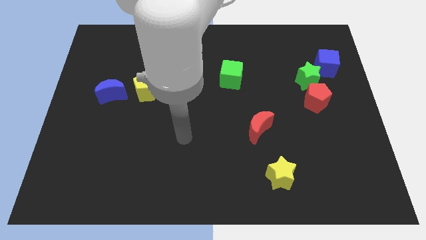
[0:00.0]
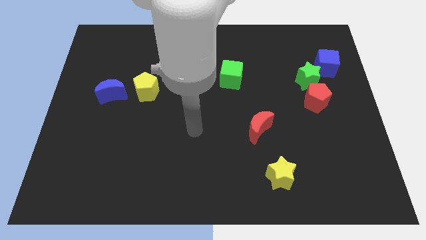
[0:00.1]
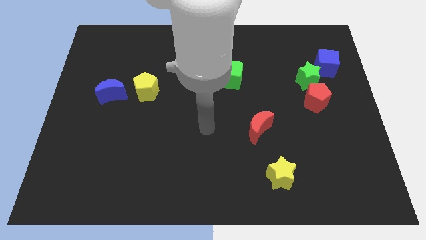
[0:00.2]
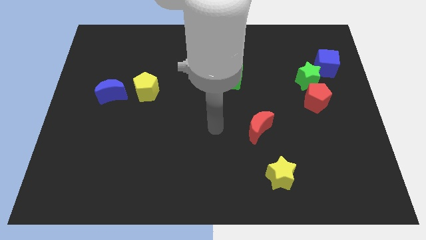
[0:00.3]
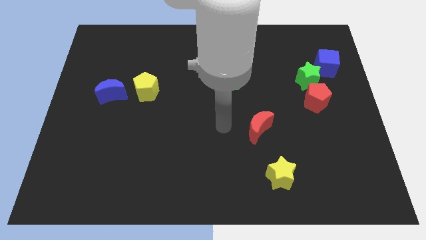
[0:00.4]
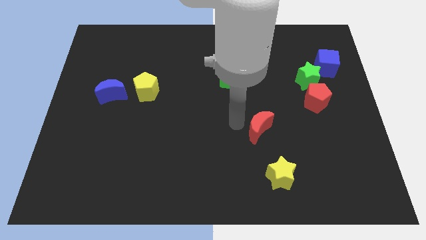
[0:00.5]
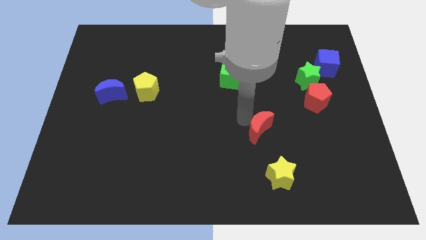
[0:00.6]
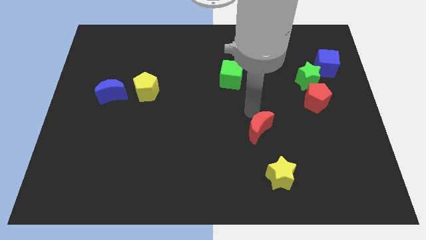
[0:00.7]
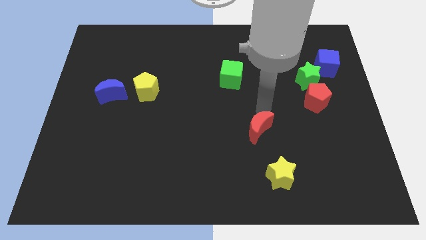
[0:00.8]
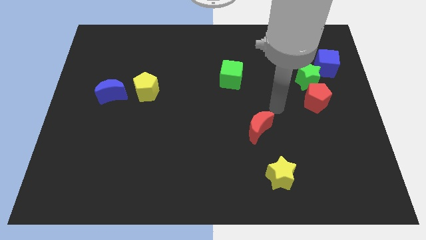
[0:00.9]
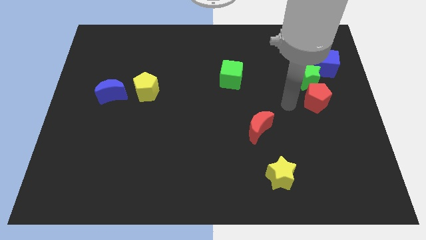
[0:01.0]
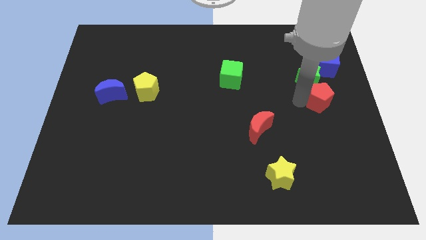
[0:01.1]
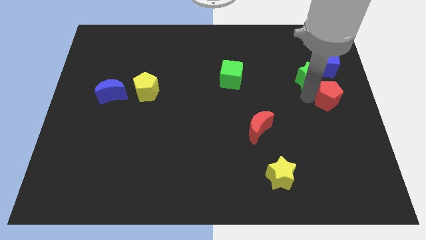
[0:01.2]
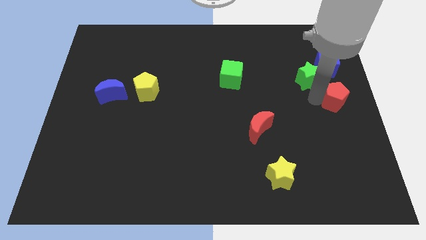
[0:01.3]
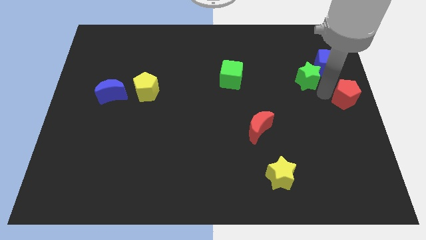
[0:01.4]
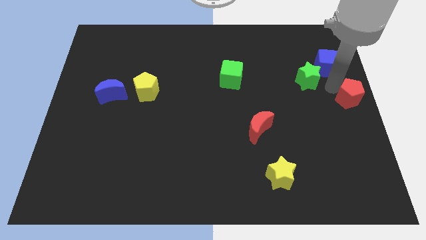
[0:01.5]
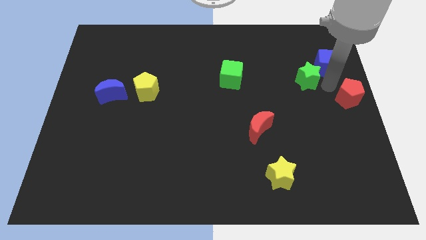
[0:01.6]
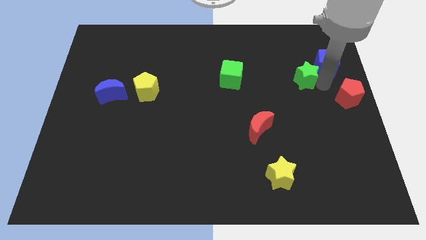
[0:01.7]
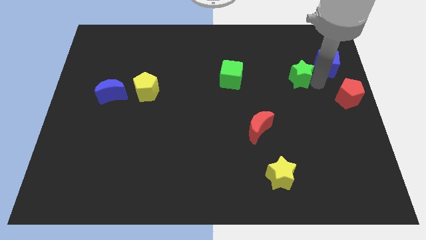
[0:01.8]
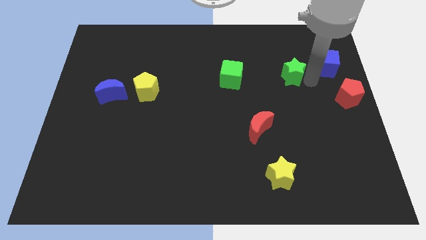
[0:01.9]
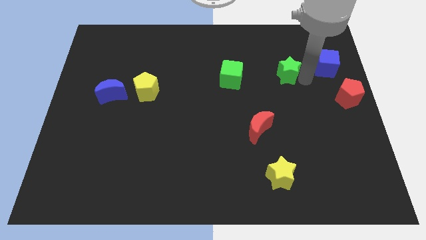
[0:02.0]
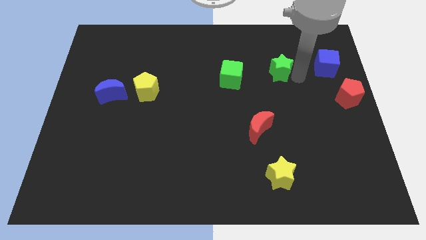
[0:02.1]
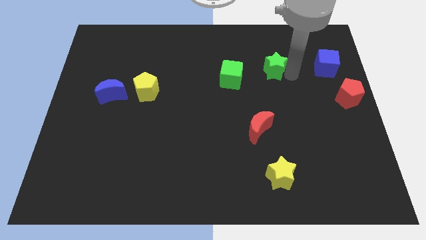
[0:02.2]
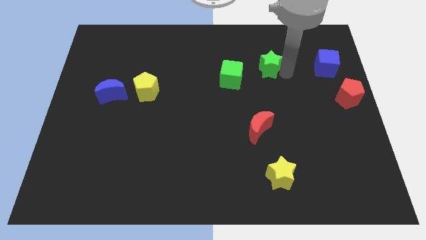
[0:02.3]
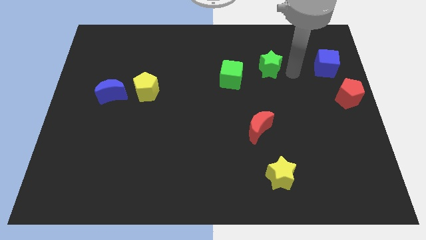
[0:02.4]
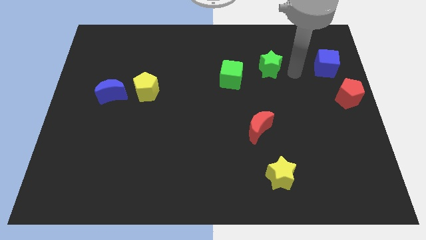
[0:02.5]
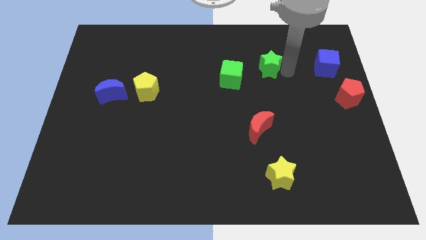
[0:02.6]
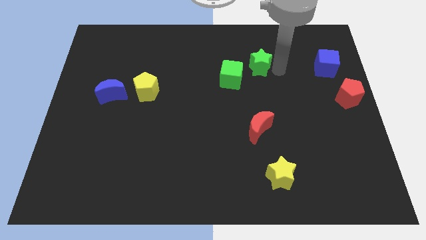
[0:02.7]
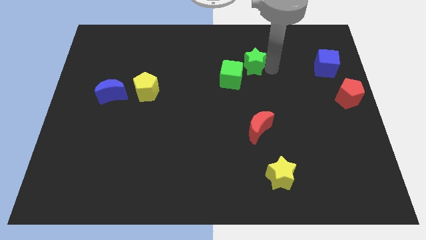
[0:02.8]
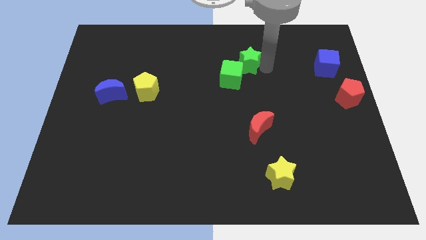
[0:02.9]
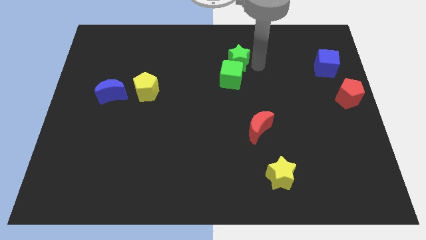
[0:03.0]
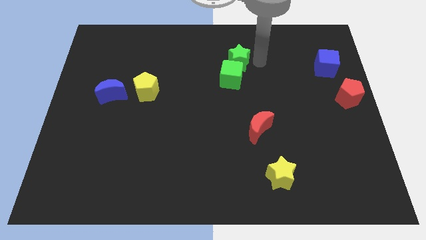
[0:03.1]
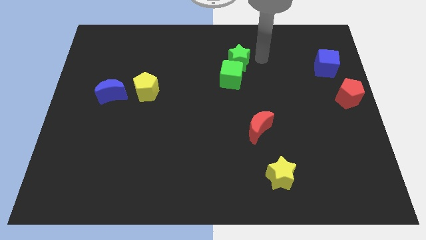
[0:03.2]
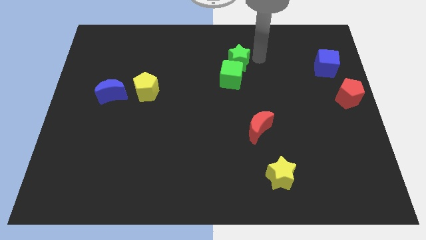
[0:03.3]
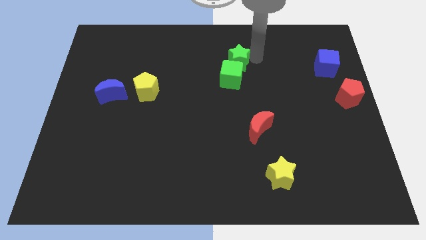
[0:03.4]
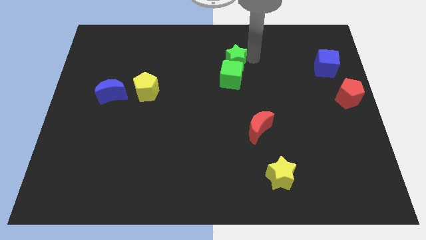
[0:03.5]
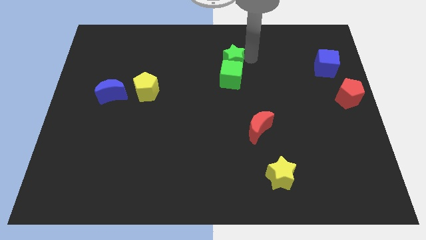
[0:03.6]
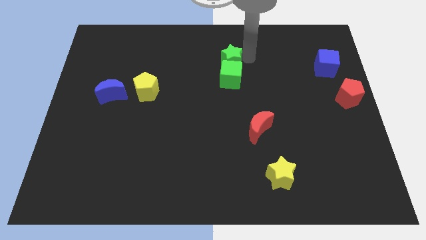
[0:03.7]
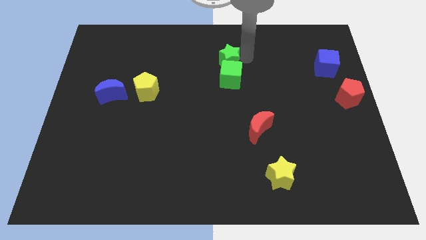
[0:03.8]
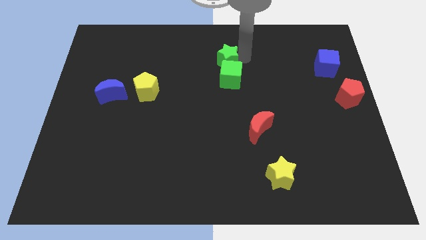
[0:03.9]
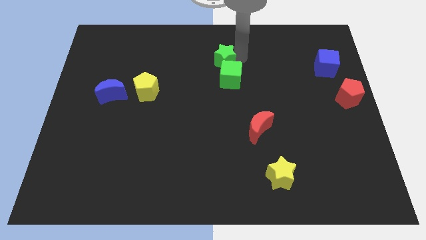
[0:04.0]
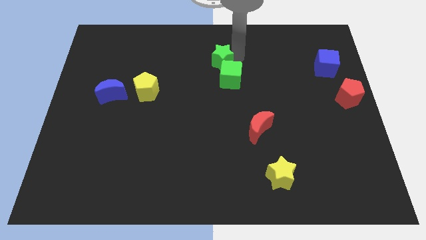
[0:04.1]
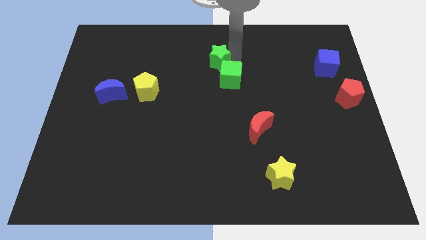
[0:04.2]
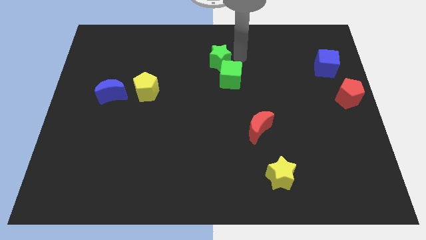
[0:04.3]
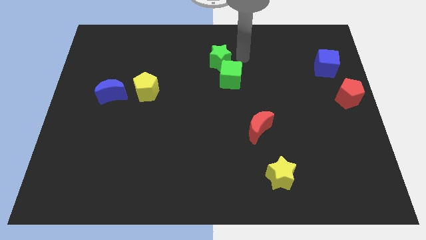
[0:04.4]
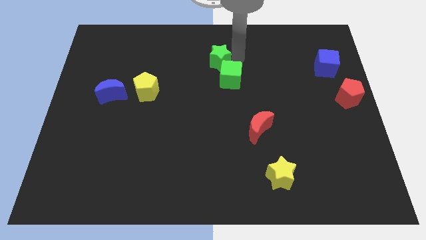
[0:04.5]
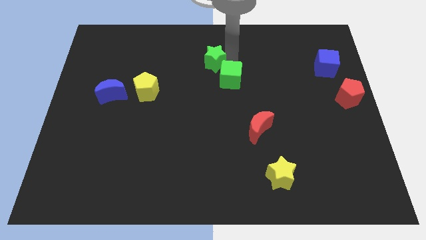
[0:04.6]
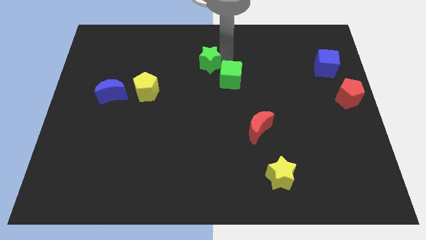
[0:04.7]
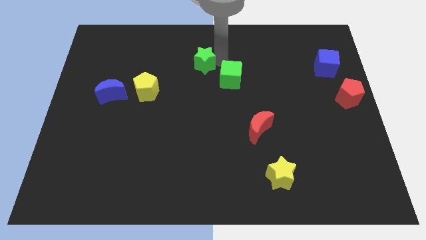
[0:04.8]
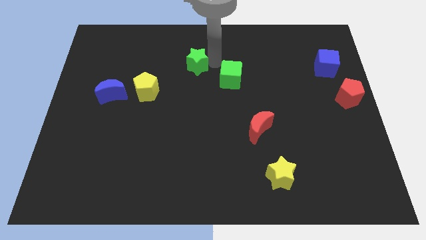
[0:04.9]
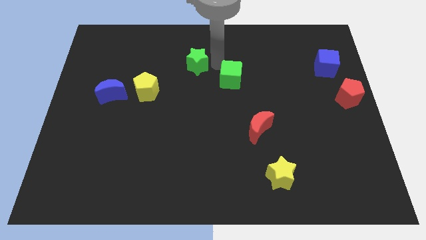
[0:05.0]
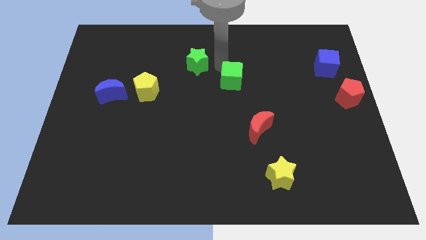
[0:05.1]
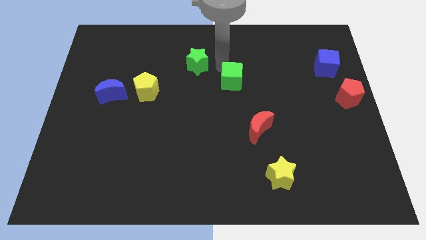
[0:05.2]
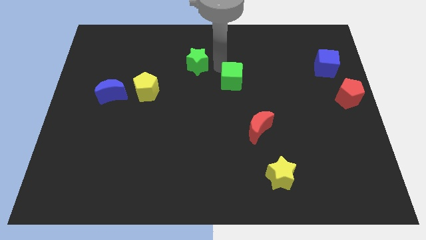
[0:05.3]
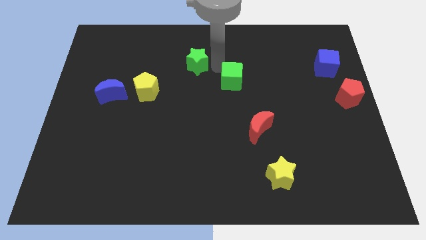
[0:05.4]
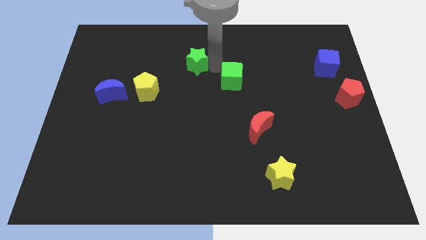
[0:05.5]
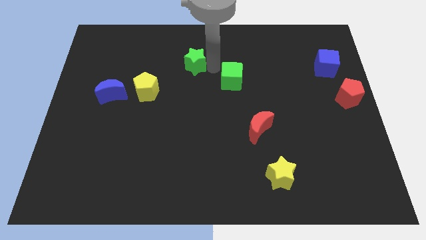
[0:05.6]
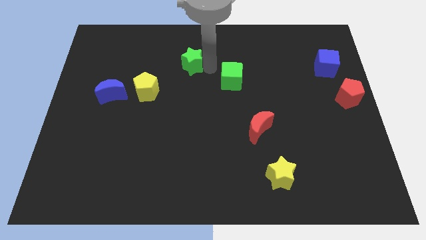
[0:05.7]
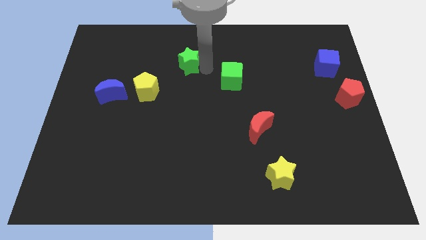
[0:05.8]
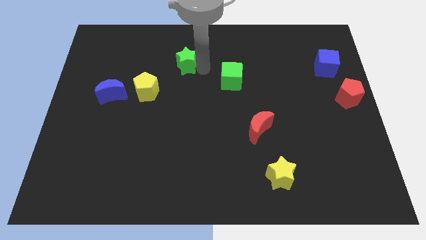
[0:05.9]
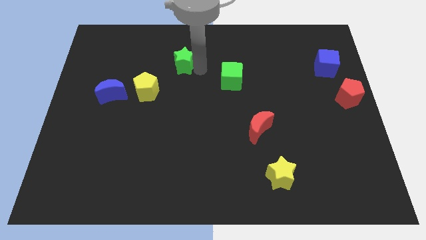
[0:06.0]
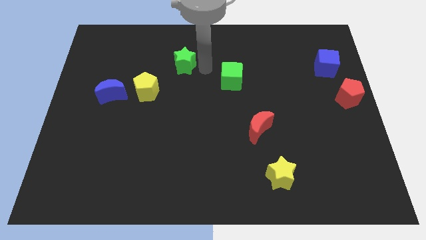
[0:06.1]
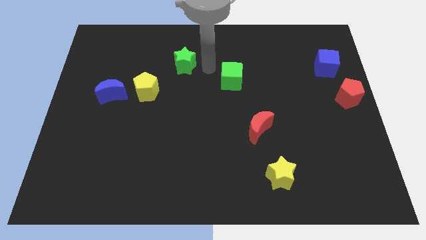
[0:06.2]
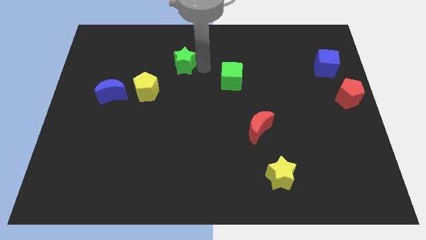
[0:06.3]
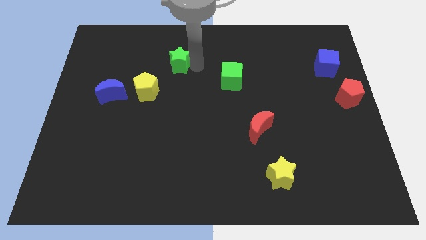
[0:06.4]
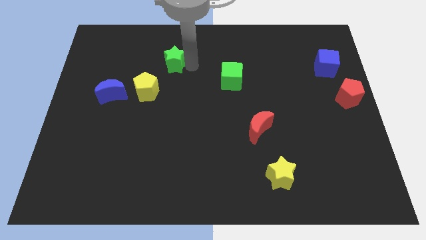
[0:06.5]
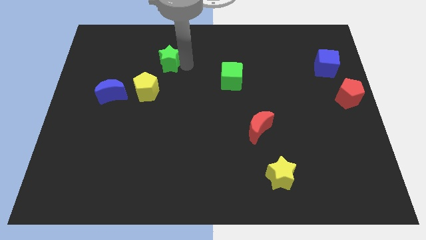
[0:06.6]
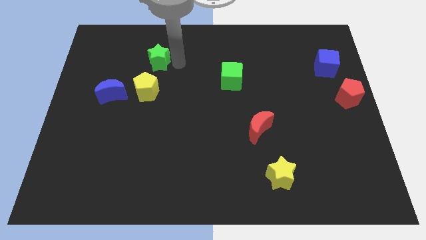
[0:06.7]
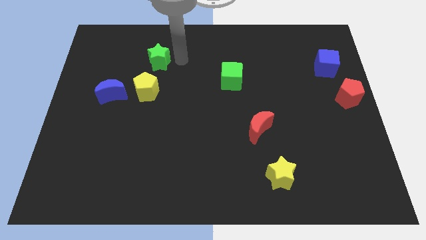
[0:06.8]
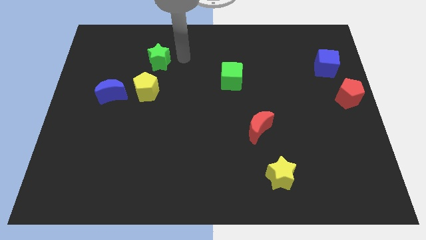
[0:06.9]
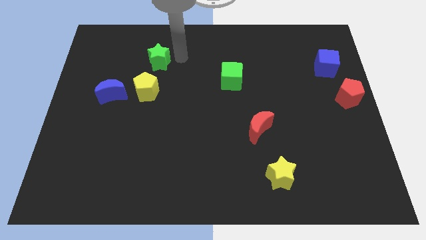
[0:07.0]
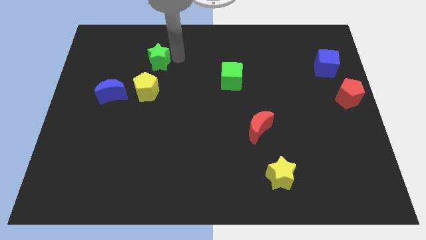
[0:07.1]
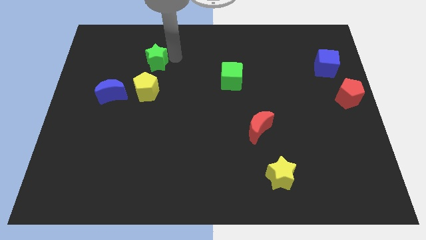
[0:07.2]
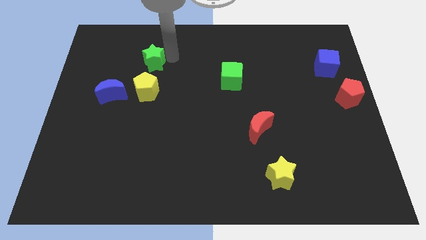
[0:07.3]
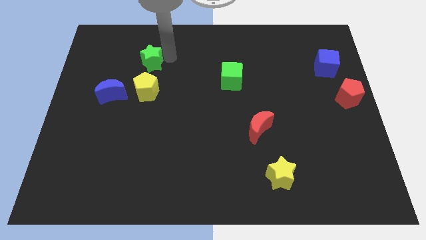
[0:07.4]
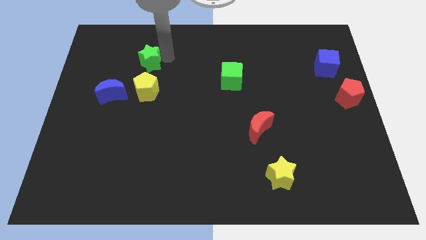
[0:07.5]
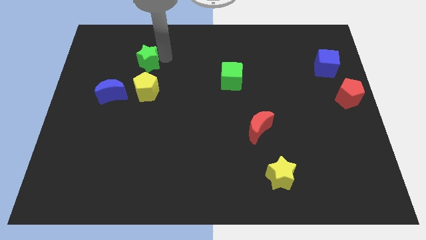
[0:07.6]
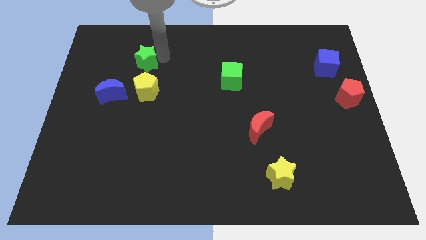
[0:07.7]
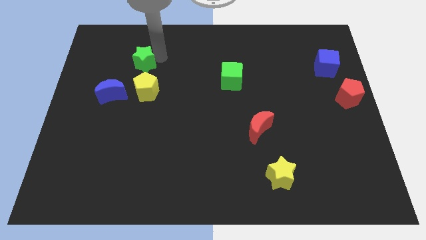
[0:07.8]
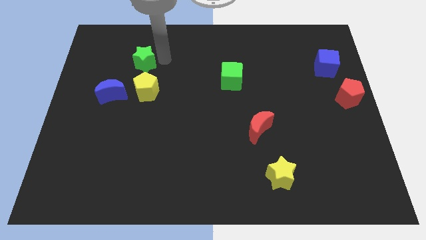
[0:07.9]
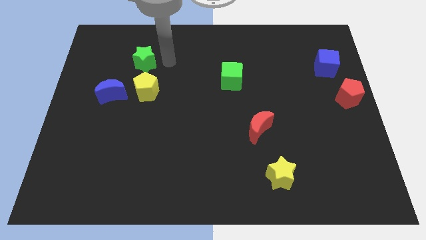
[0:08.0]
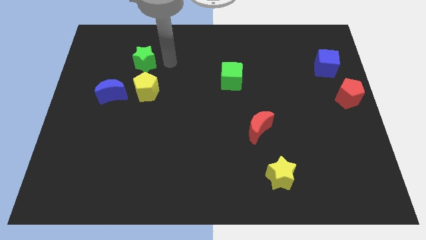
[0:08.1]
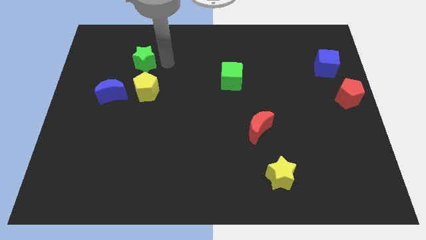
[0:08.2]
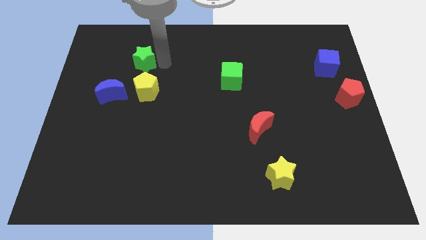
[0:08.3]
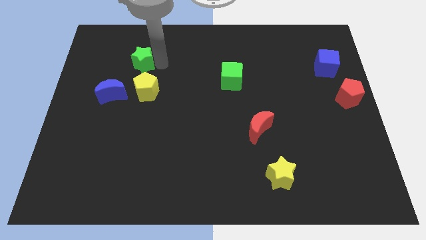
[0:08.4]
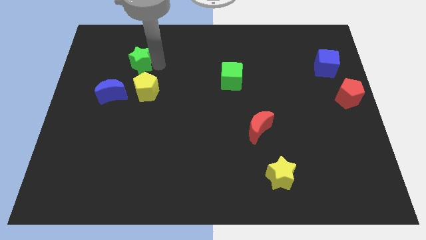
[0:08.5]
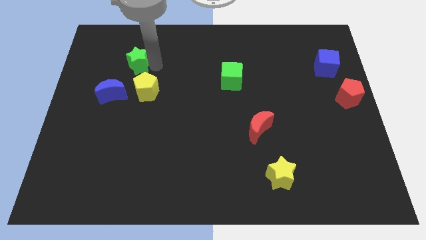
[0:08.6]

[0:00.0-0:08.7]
slide the green star to the top side of the blue moon
